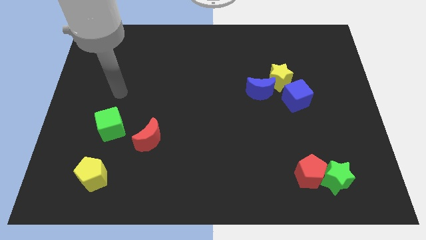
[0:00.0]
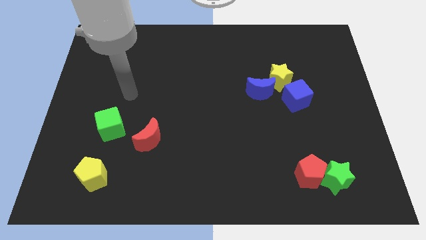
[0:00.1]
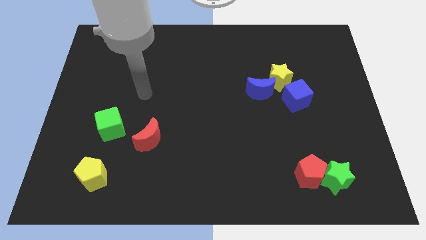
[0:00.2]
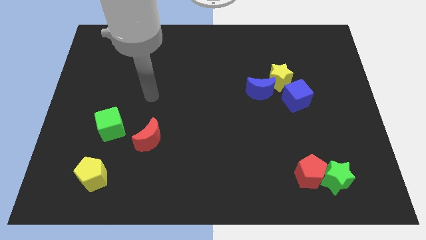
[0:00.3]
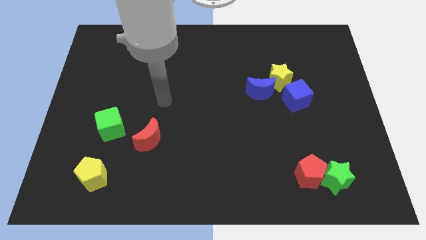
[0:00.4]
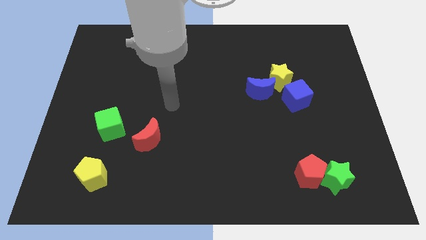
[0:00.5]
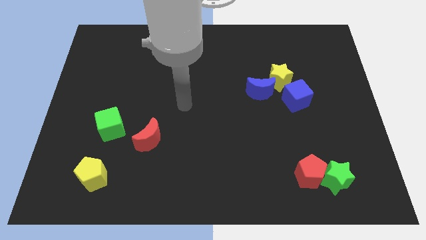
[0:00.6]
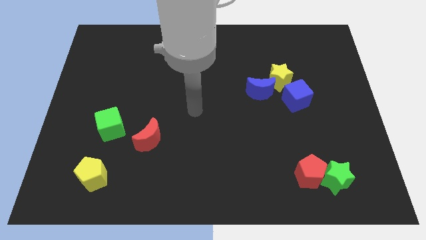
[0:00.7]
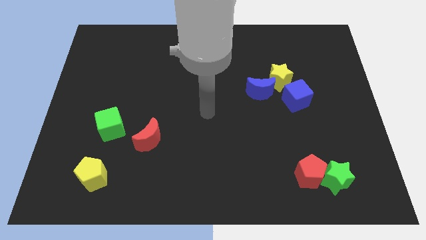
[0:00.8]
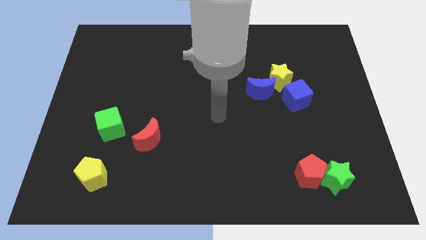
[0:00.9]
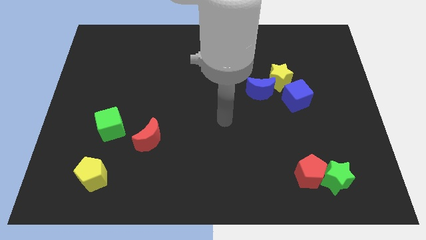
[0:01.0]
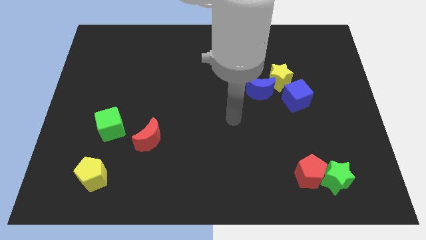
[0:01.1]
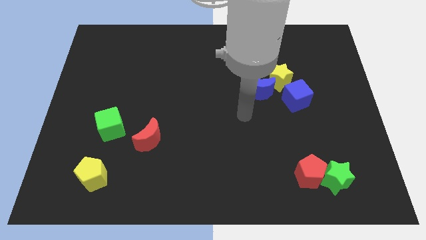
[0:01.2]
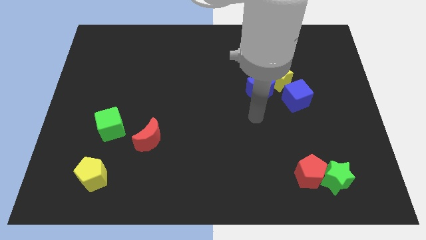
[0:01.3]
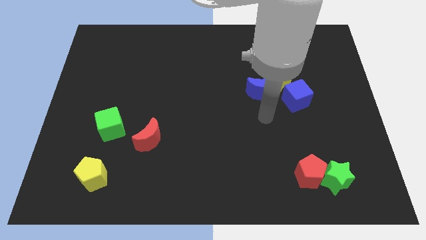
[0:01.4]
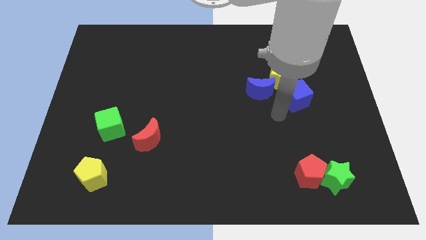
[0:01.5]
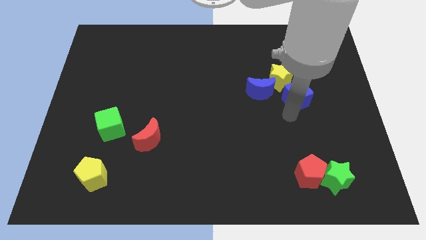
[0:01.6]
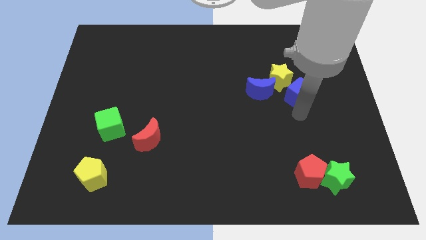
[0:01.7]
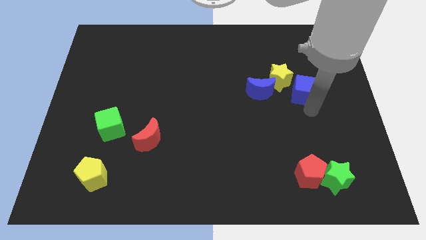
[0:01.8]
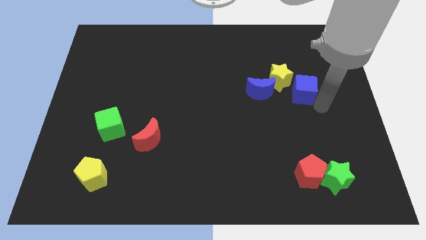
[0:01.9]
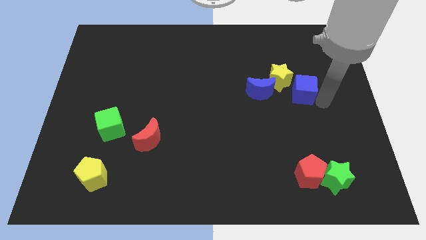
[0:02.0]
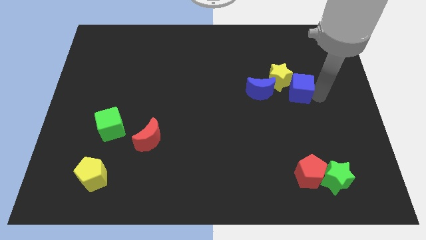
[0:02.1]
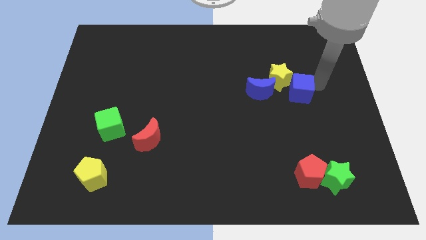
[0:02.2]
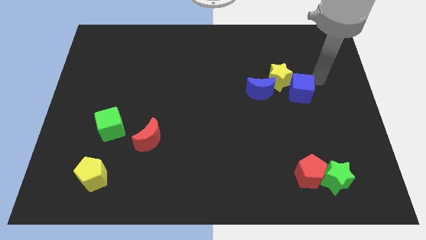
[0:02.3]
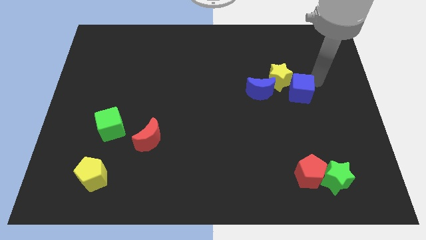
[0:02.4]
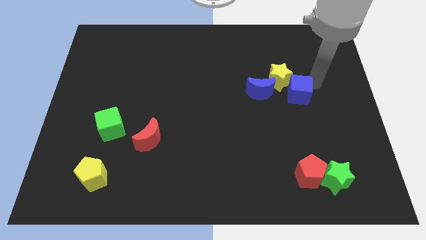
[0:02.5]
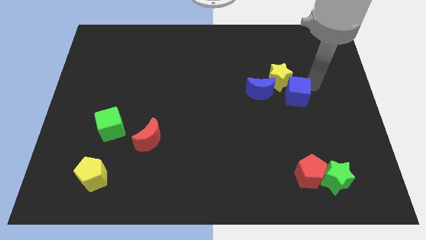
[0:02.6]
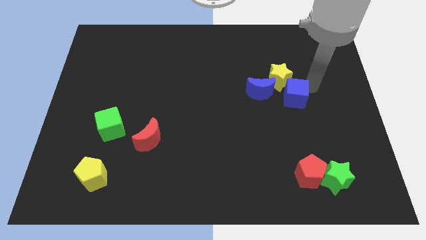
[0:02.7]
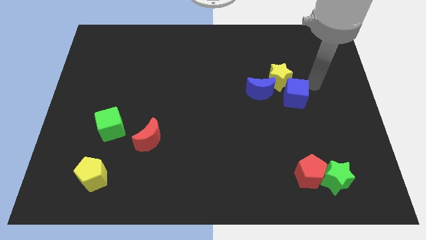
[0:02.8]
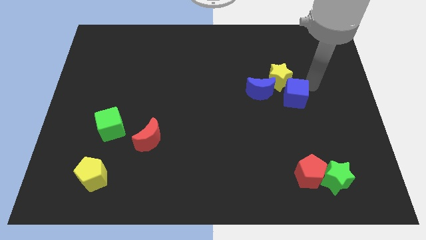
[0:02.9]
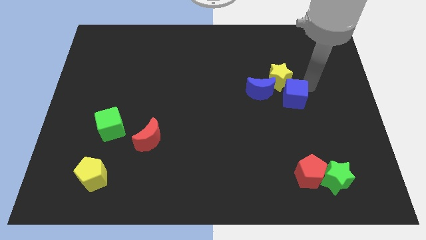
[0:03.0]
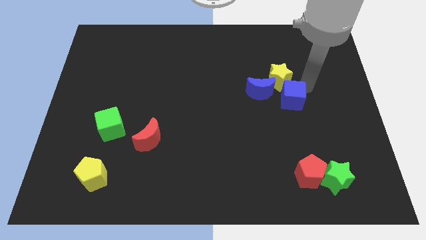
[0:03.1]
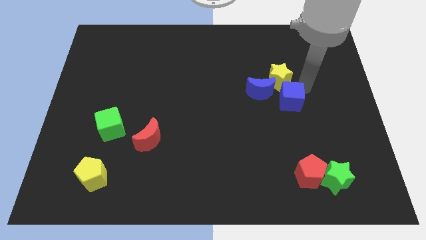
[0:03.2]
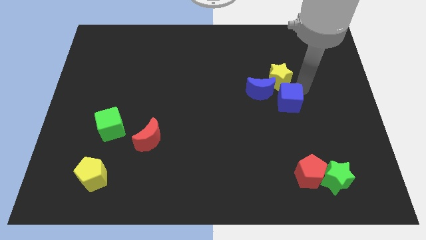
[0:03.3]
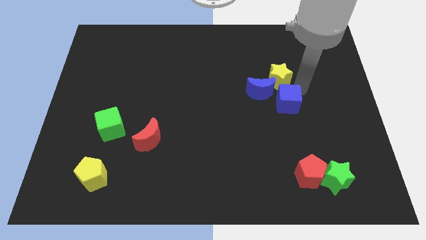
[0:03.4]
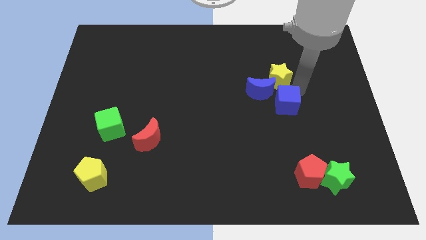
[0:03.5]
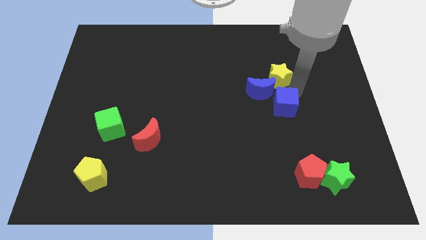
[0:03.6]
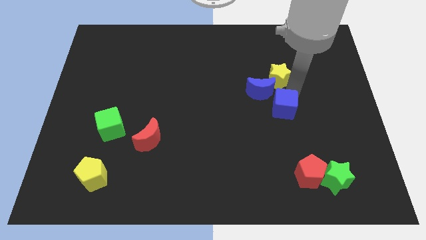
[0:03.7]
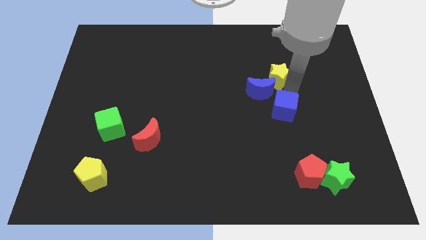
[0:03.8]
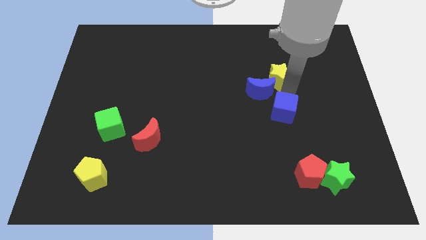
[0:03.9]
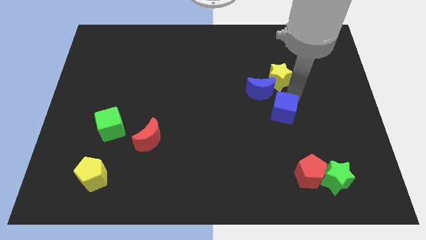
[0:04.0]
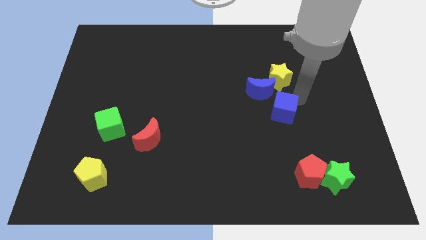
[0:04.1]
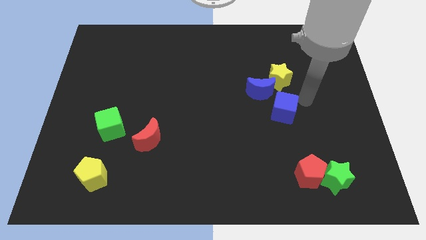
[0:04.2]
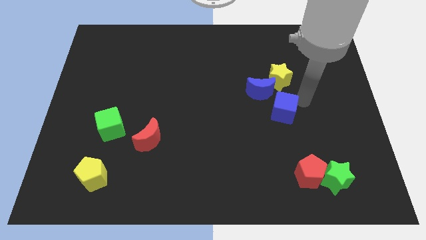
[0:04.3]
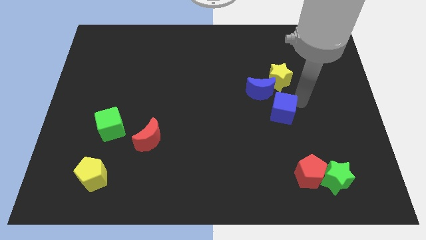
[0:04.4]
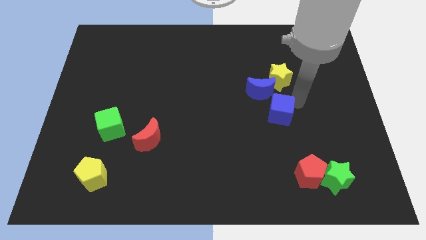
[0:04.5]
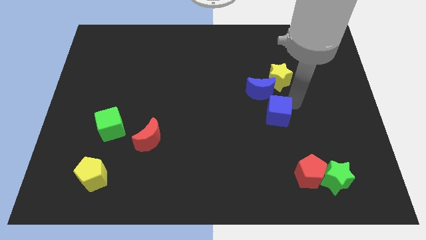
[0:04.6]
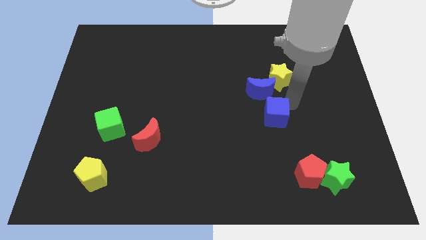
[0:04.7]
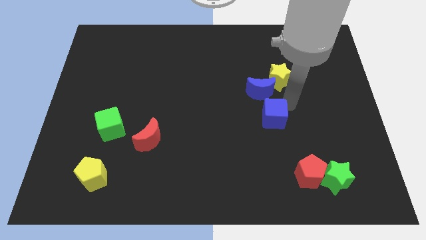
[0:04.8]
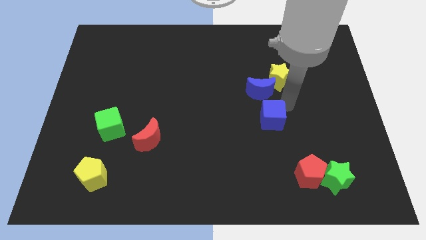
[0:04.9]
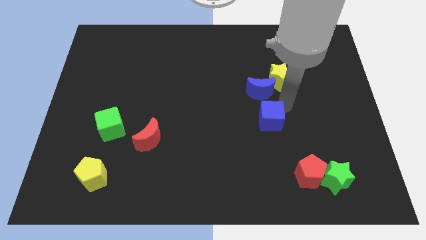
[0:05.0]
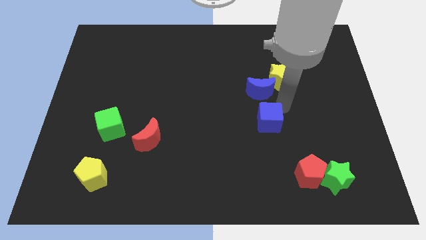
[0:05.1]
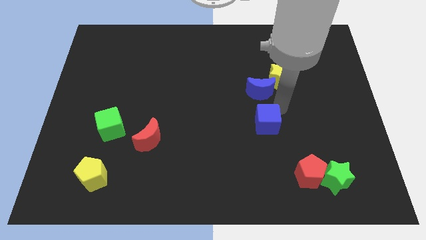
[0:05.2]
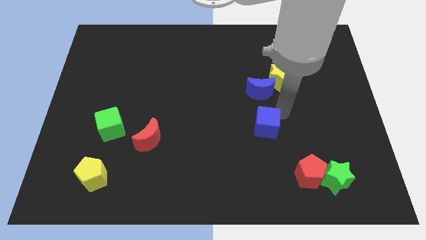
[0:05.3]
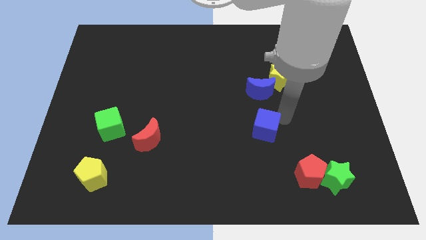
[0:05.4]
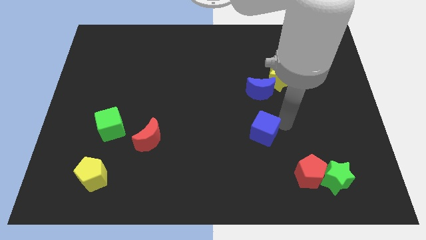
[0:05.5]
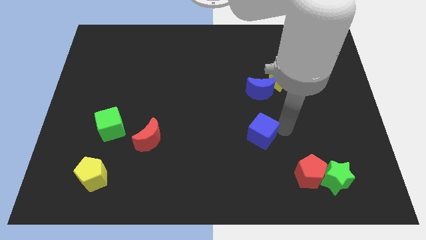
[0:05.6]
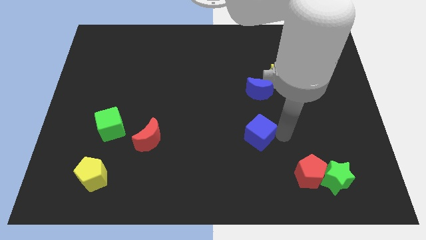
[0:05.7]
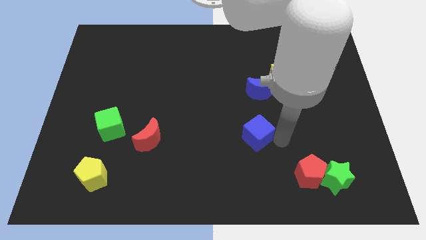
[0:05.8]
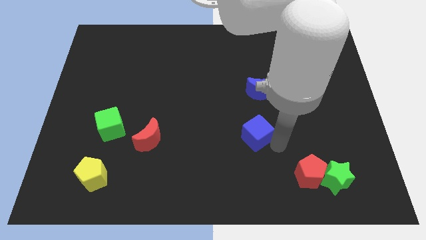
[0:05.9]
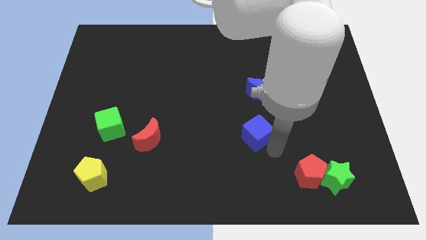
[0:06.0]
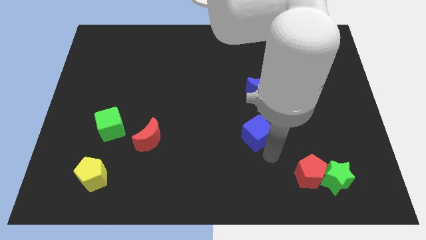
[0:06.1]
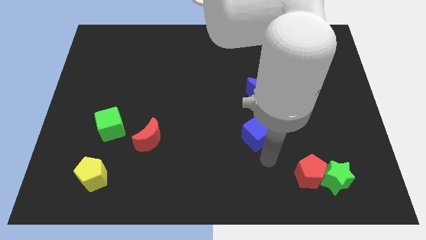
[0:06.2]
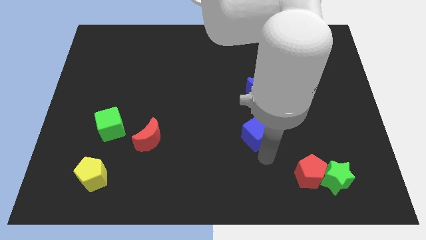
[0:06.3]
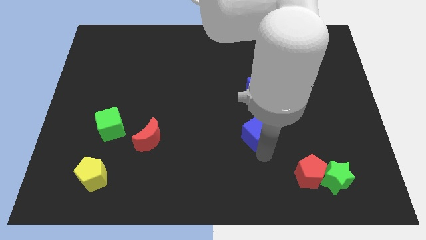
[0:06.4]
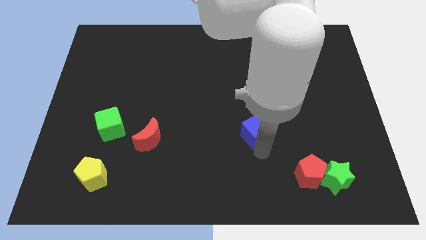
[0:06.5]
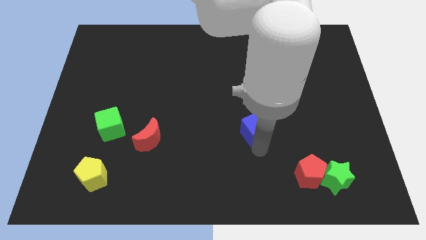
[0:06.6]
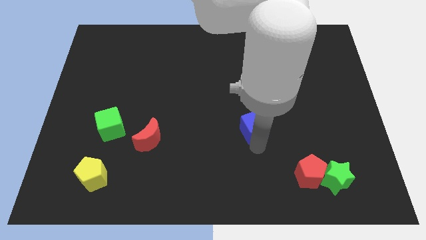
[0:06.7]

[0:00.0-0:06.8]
slightly push the blue cube to the left

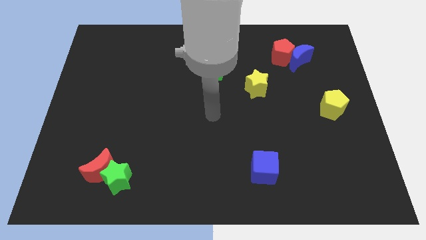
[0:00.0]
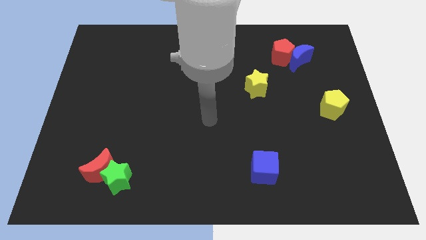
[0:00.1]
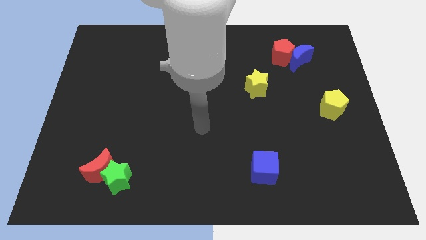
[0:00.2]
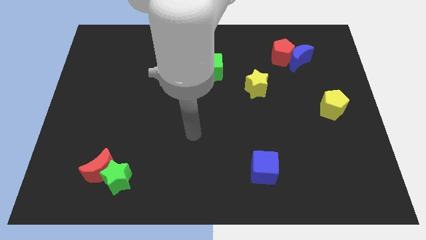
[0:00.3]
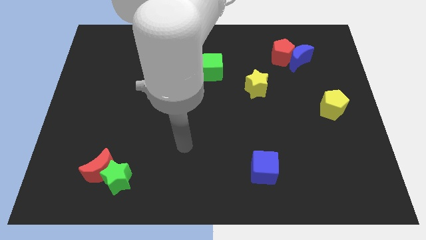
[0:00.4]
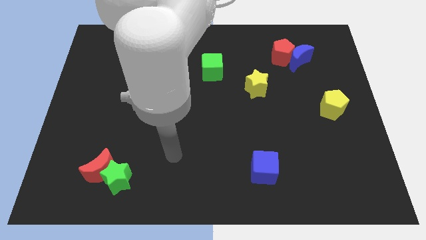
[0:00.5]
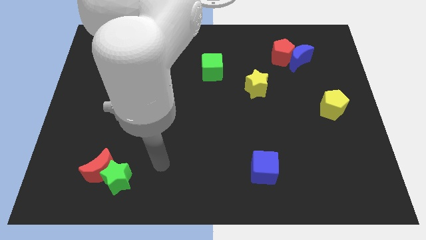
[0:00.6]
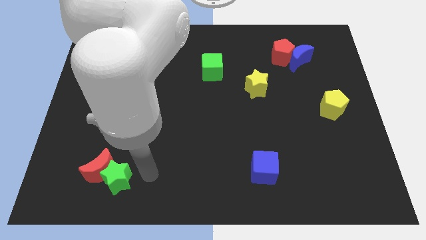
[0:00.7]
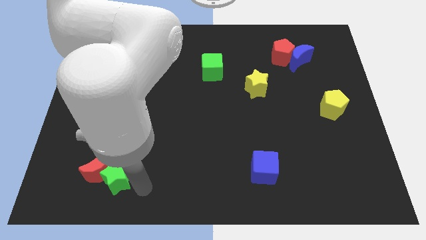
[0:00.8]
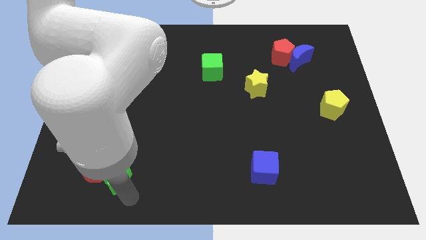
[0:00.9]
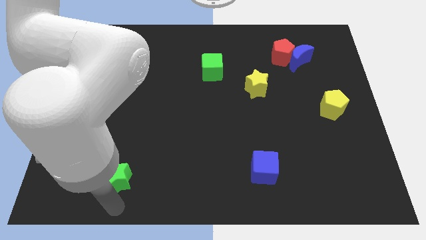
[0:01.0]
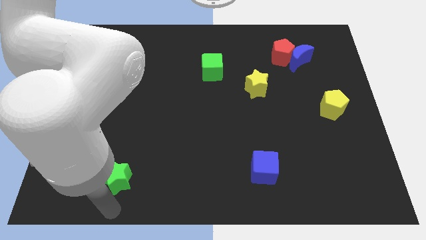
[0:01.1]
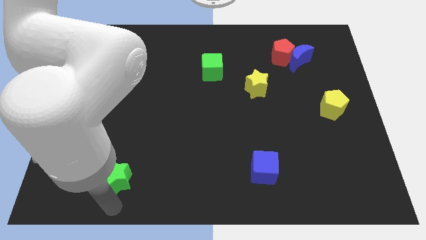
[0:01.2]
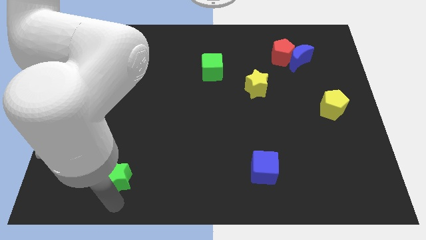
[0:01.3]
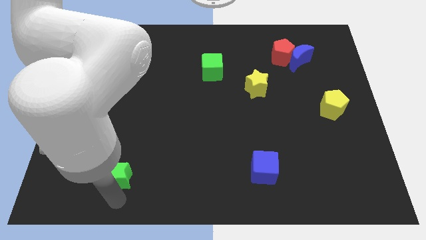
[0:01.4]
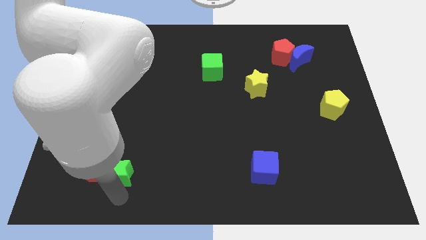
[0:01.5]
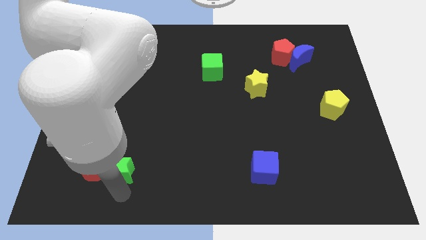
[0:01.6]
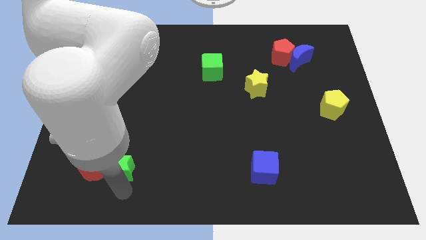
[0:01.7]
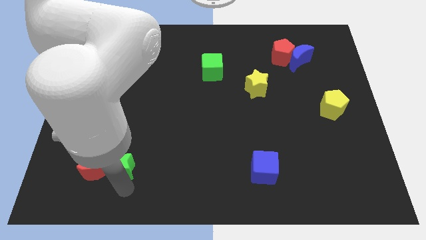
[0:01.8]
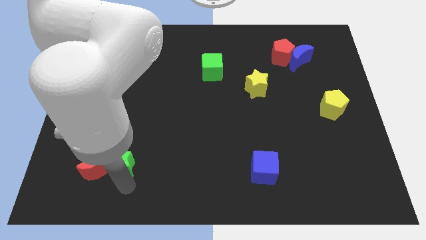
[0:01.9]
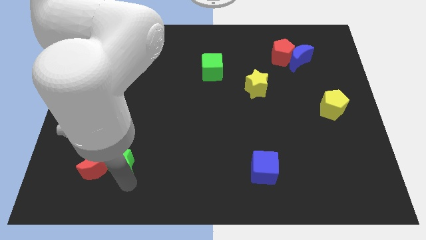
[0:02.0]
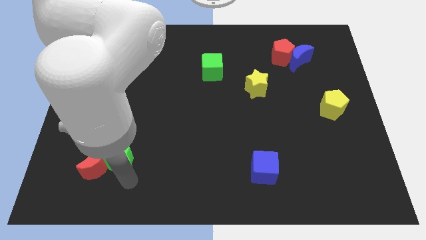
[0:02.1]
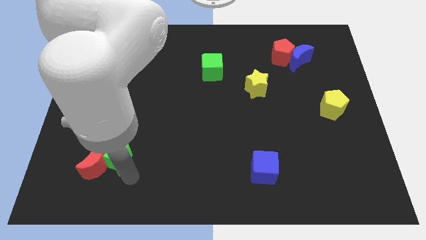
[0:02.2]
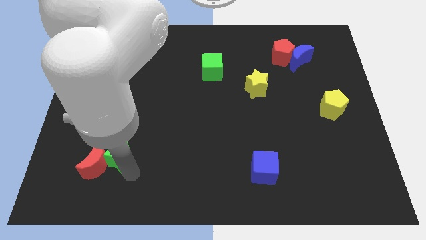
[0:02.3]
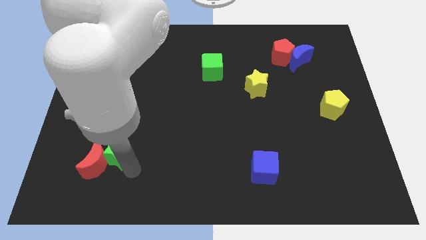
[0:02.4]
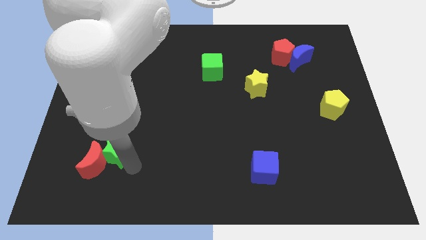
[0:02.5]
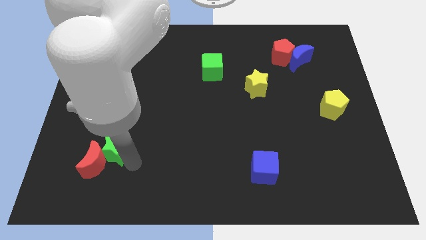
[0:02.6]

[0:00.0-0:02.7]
slightly slide the green star upwards
